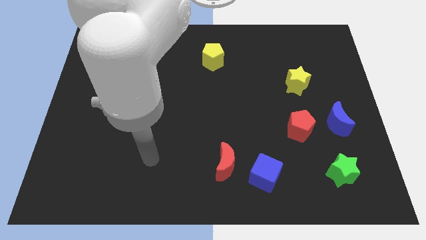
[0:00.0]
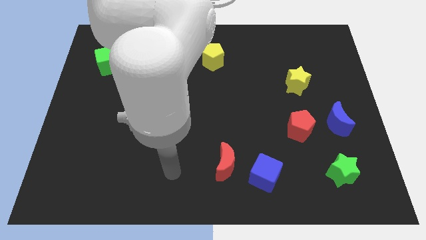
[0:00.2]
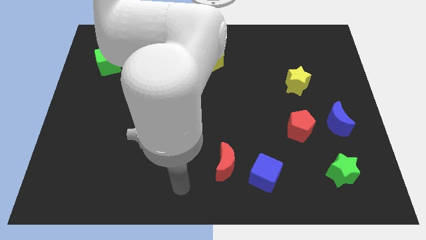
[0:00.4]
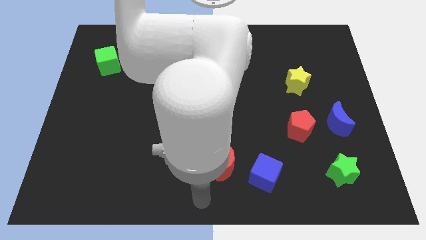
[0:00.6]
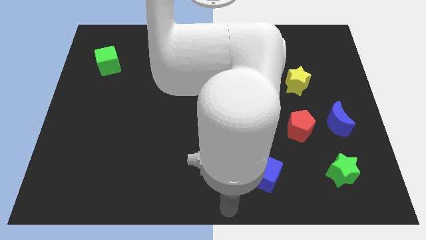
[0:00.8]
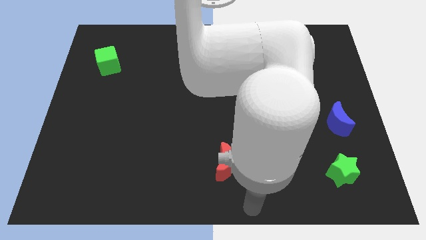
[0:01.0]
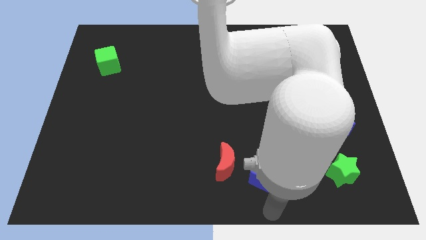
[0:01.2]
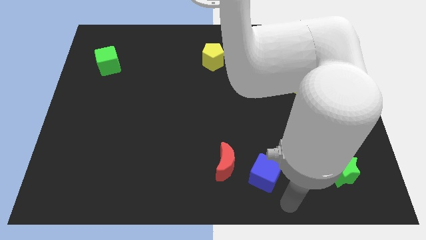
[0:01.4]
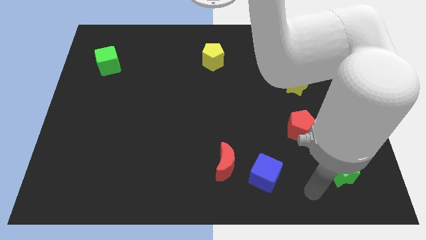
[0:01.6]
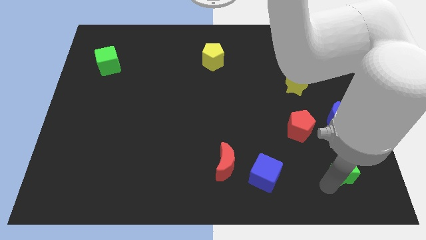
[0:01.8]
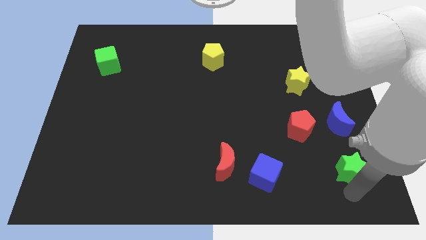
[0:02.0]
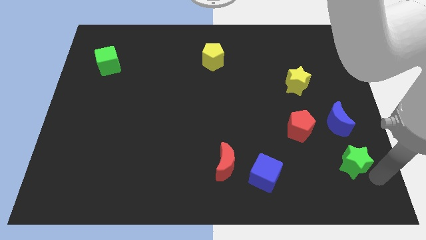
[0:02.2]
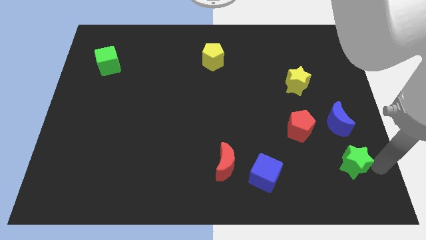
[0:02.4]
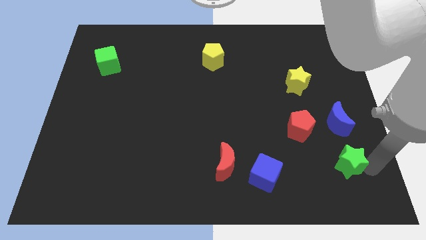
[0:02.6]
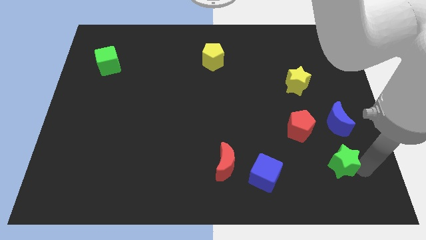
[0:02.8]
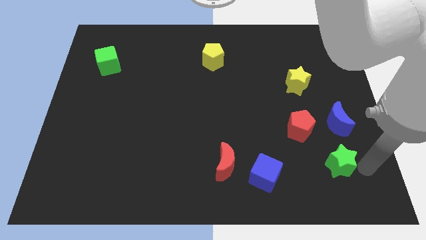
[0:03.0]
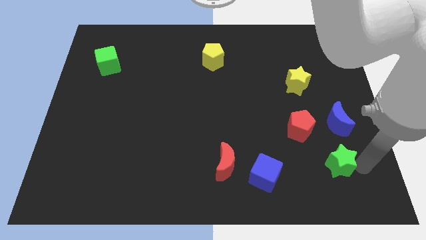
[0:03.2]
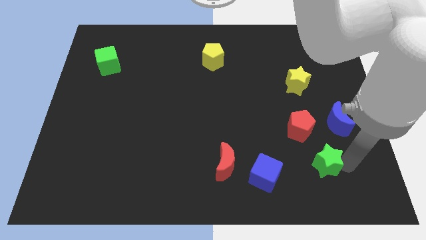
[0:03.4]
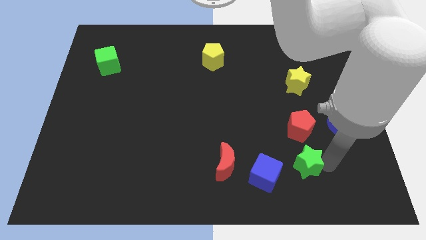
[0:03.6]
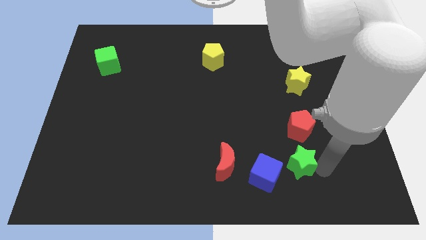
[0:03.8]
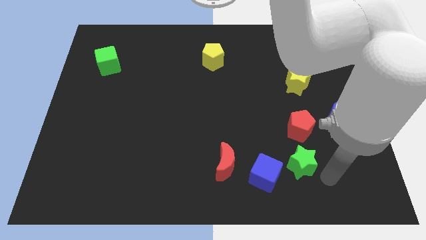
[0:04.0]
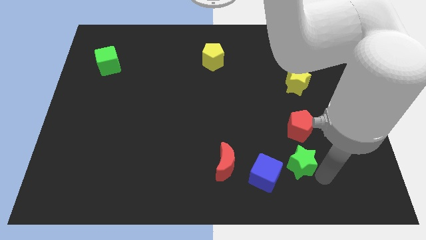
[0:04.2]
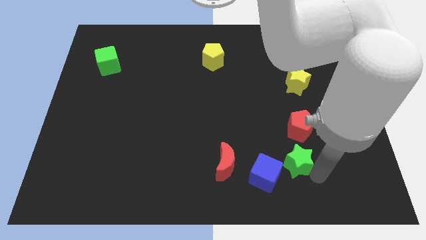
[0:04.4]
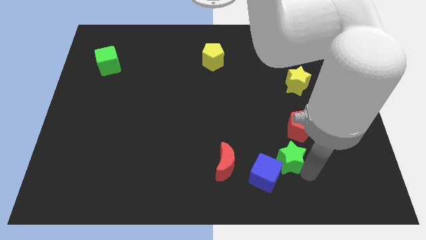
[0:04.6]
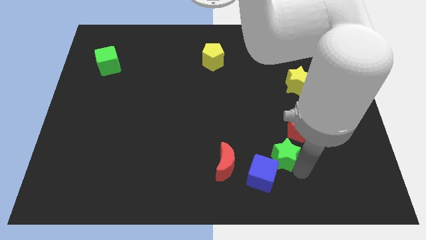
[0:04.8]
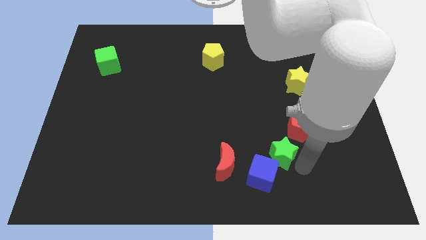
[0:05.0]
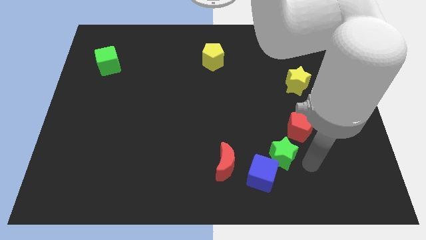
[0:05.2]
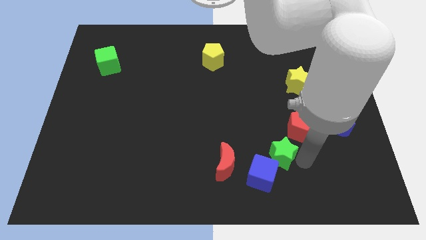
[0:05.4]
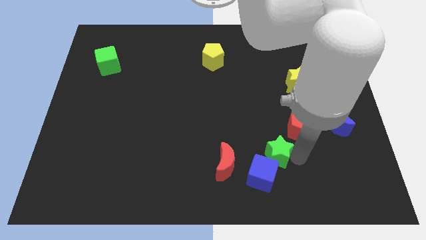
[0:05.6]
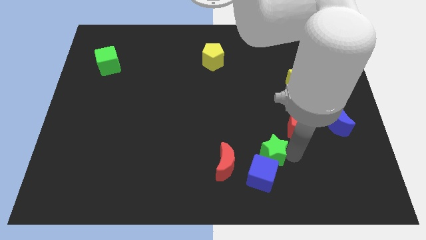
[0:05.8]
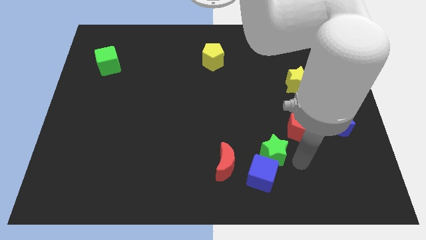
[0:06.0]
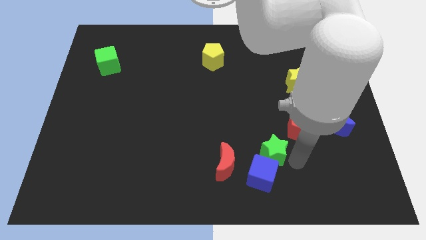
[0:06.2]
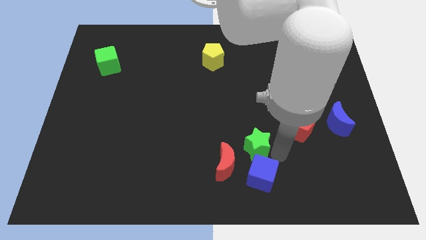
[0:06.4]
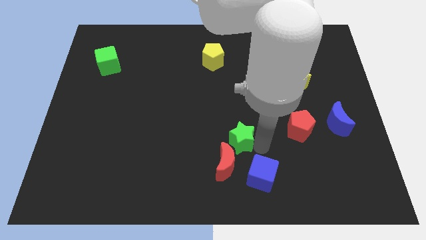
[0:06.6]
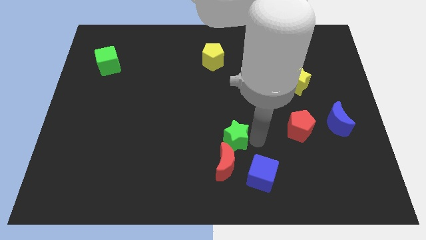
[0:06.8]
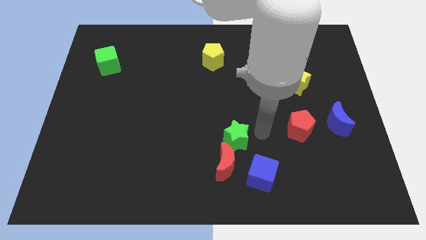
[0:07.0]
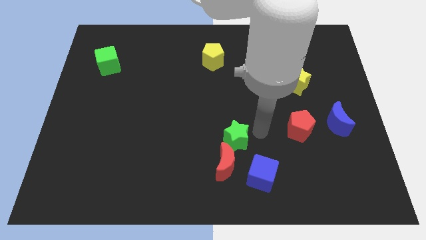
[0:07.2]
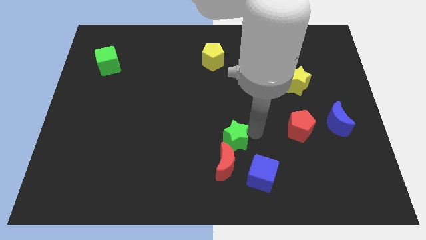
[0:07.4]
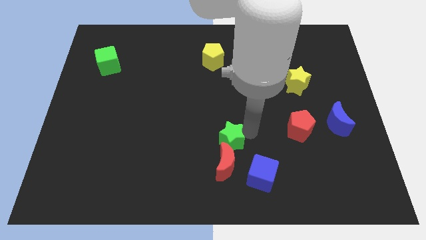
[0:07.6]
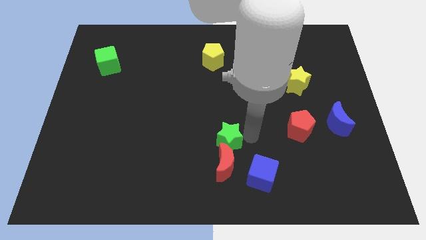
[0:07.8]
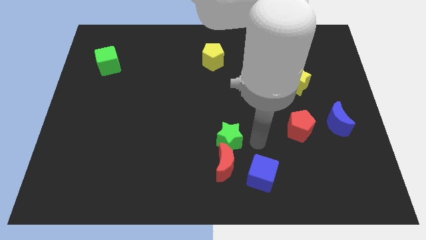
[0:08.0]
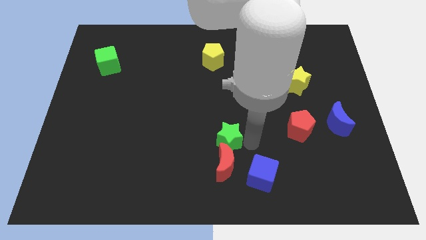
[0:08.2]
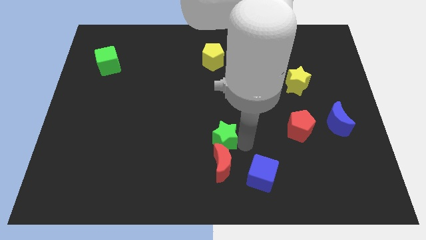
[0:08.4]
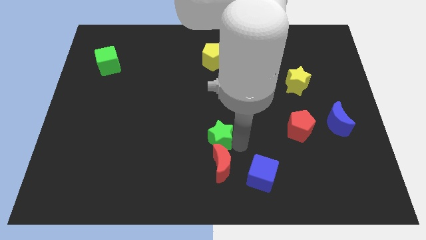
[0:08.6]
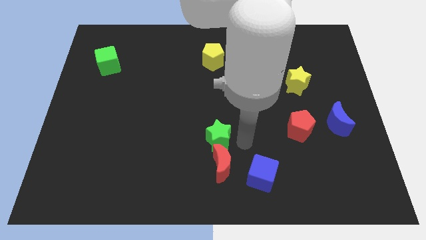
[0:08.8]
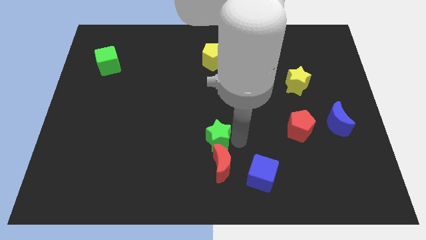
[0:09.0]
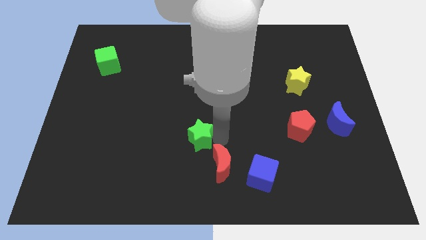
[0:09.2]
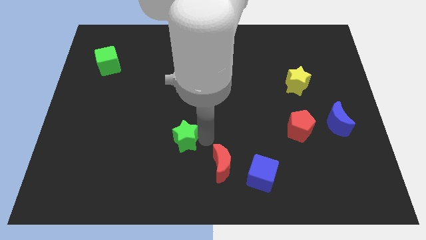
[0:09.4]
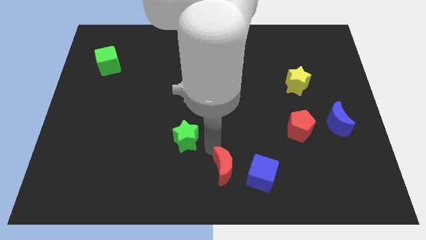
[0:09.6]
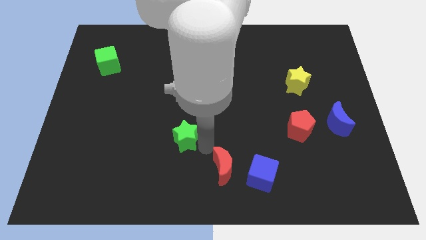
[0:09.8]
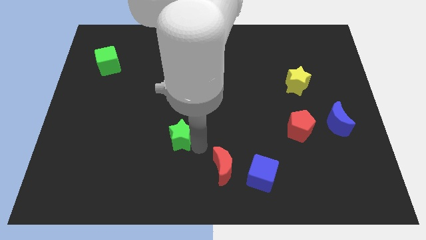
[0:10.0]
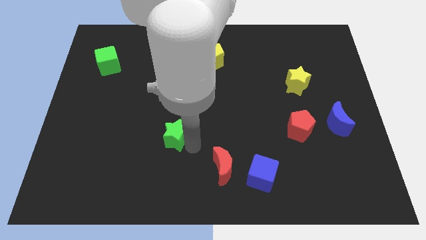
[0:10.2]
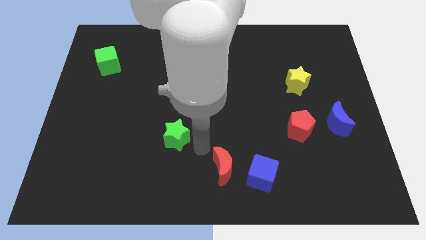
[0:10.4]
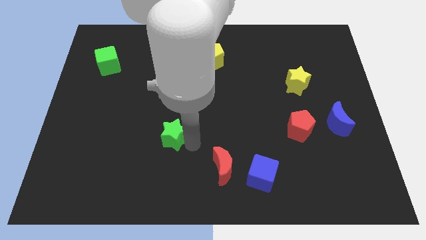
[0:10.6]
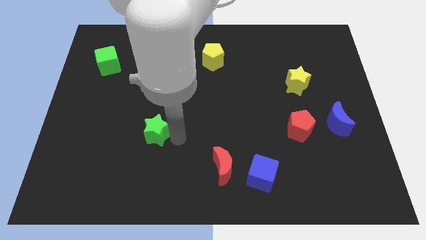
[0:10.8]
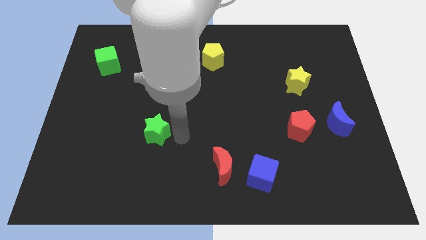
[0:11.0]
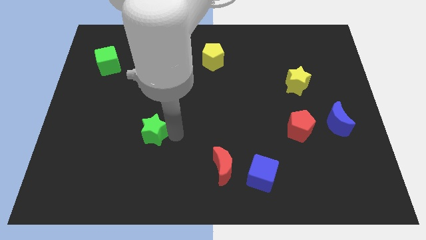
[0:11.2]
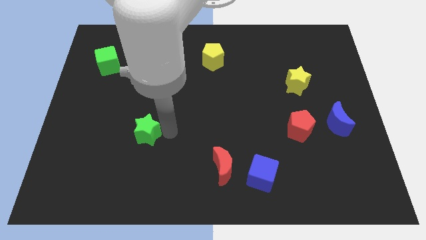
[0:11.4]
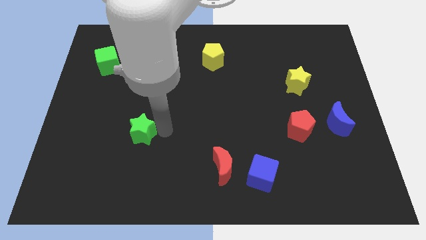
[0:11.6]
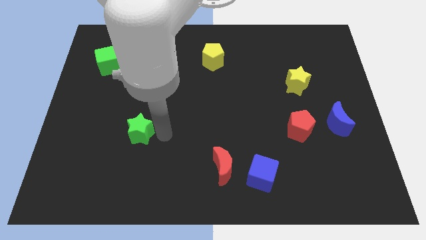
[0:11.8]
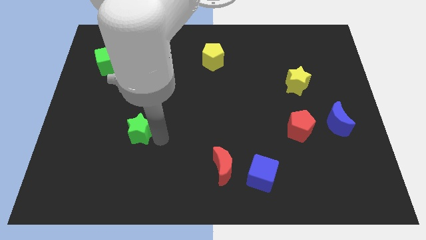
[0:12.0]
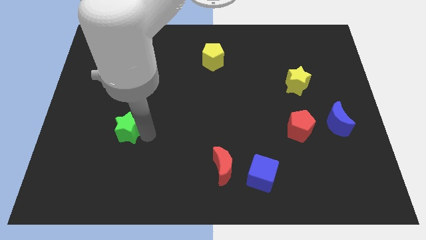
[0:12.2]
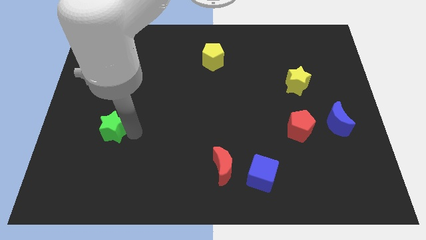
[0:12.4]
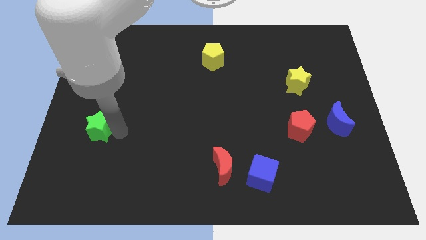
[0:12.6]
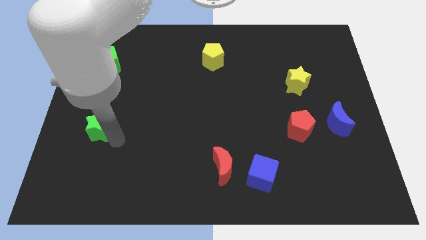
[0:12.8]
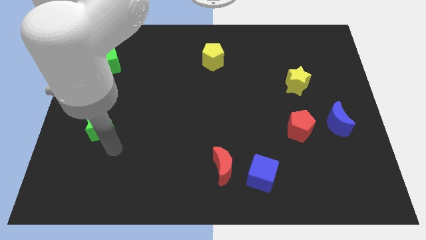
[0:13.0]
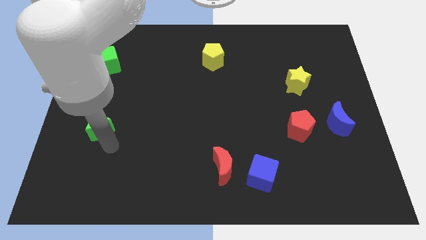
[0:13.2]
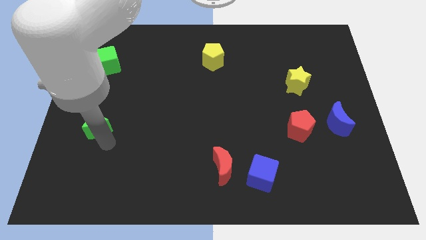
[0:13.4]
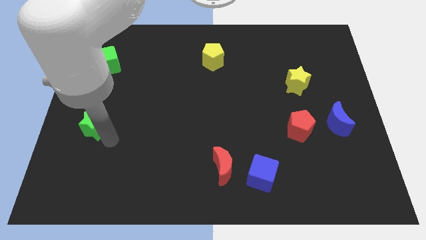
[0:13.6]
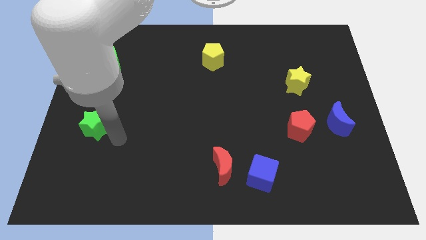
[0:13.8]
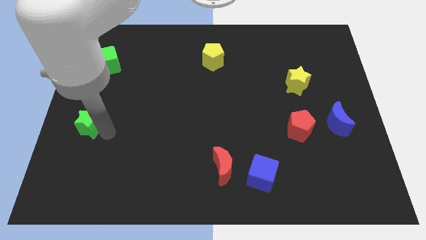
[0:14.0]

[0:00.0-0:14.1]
slide the green star to the center left
